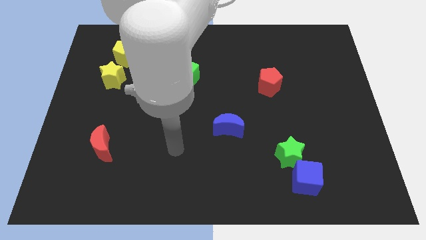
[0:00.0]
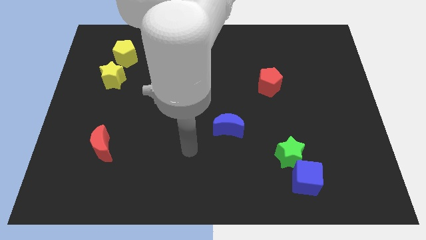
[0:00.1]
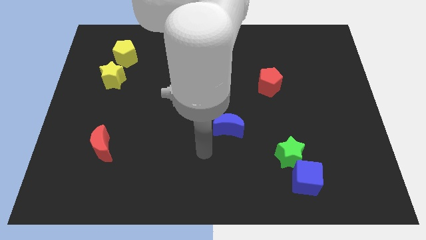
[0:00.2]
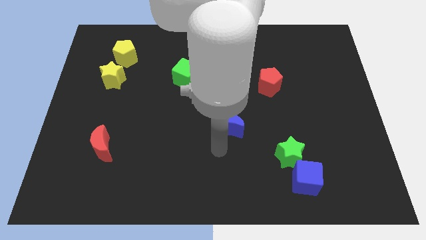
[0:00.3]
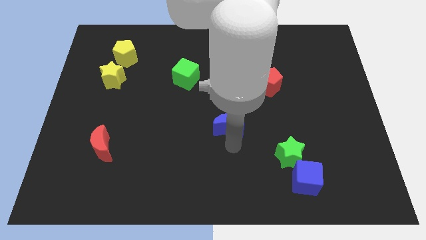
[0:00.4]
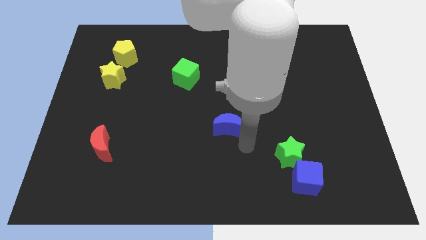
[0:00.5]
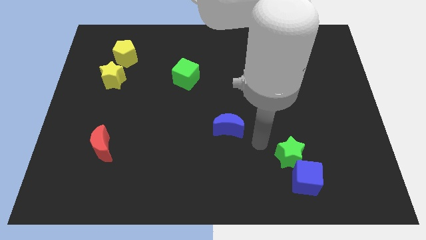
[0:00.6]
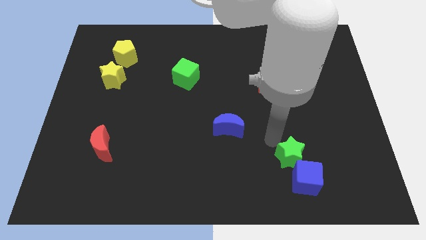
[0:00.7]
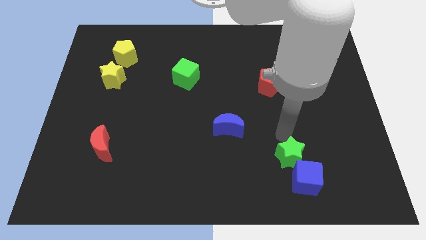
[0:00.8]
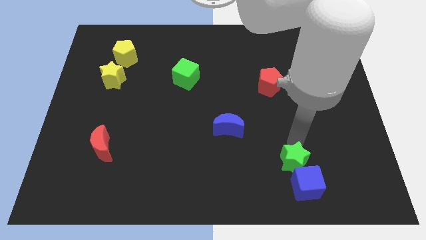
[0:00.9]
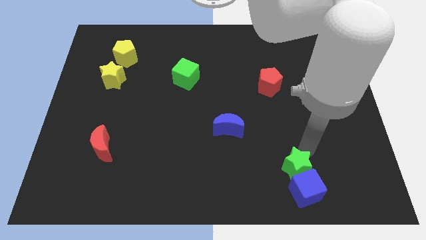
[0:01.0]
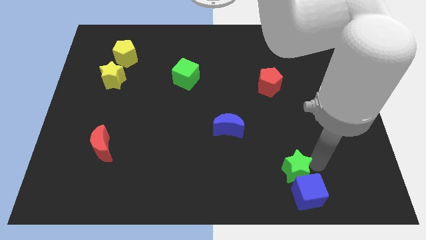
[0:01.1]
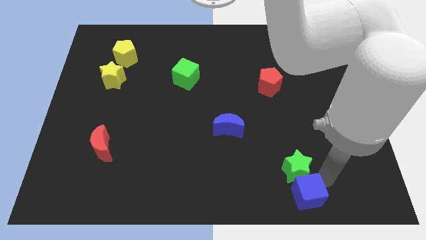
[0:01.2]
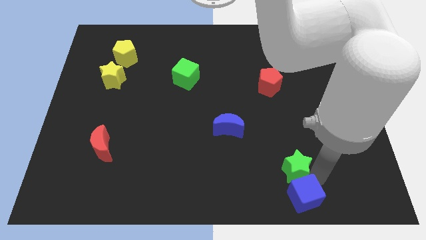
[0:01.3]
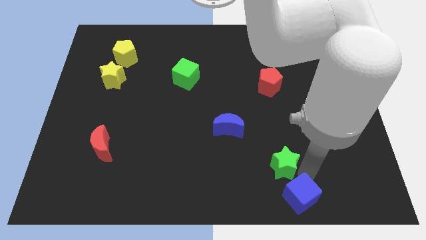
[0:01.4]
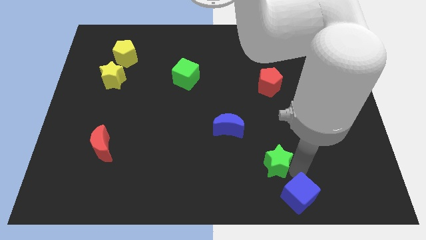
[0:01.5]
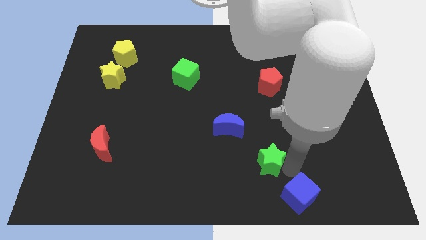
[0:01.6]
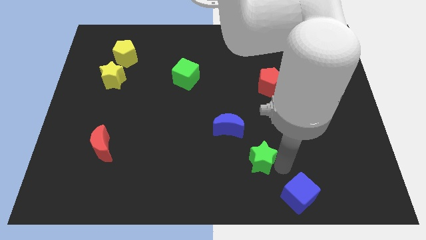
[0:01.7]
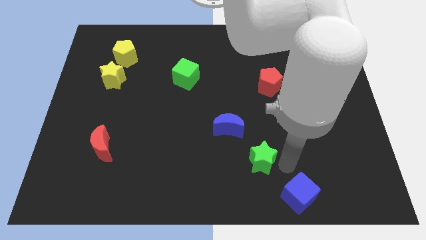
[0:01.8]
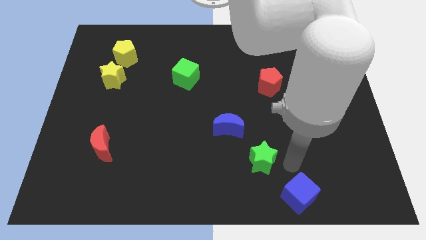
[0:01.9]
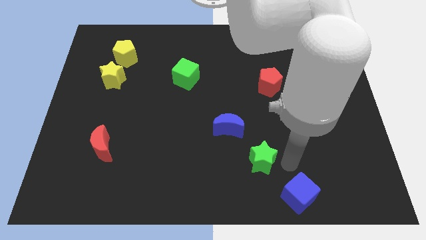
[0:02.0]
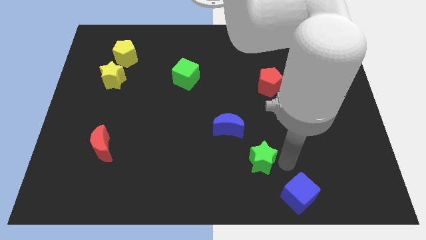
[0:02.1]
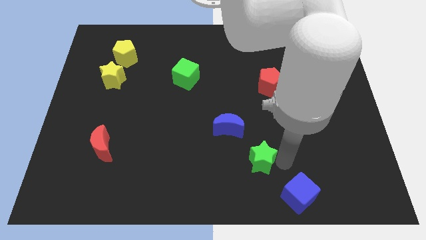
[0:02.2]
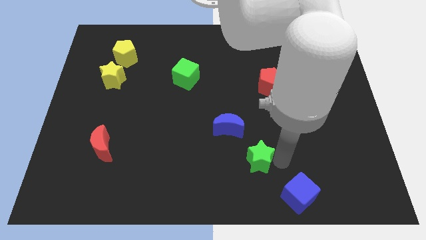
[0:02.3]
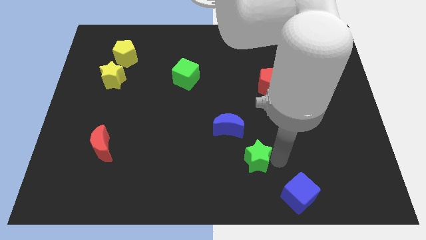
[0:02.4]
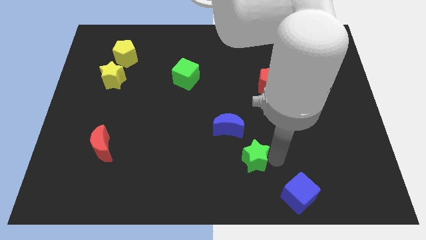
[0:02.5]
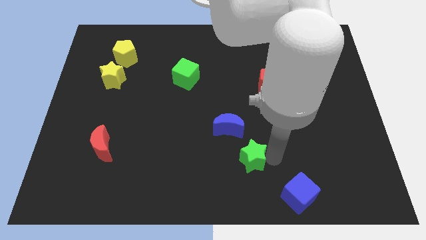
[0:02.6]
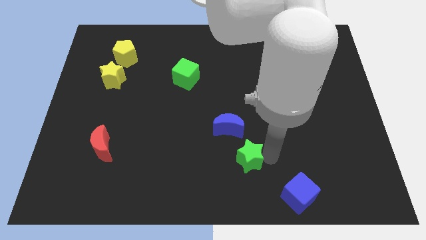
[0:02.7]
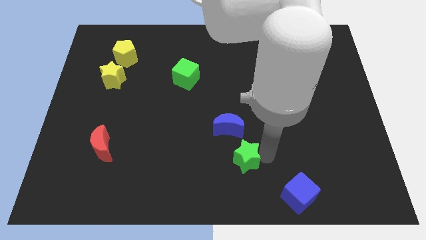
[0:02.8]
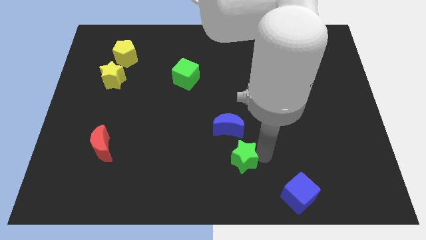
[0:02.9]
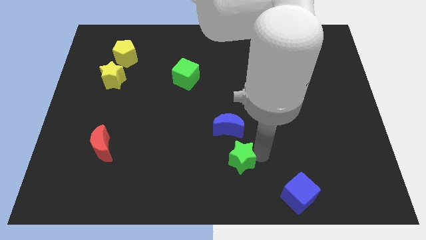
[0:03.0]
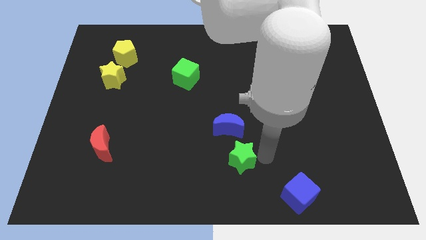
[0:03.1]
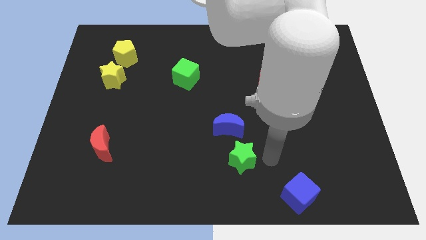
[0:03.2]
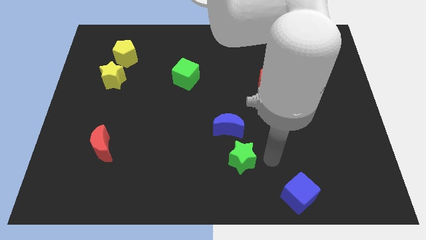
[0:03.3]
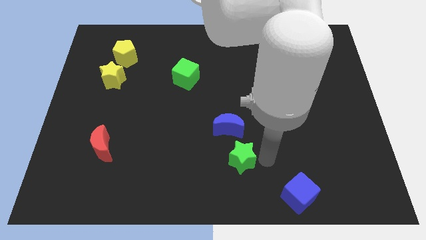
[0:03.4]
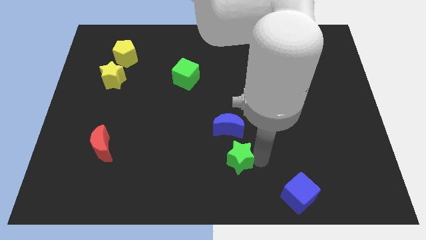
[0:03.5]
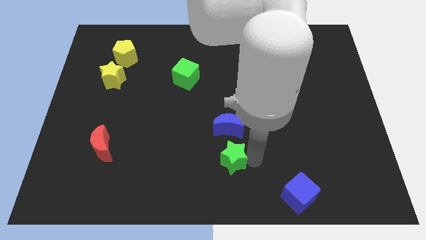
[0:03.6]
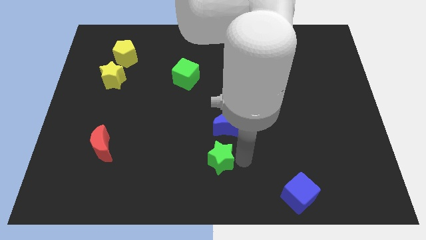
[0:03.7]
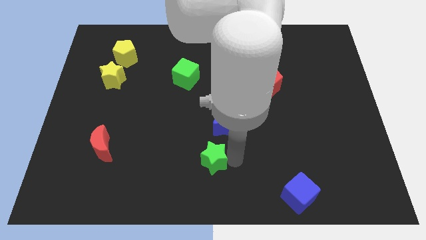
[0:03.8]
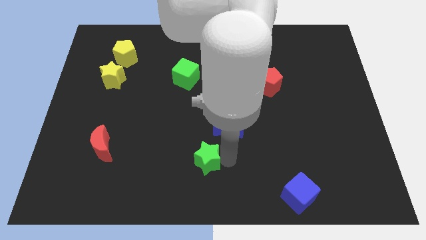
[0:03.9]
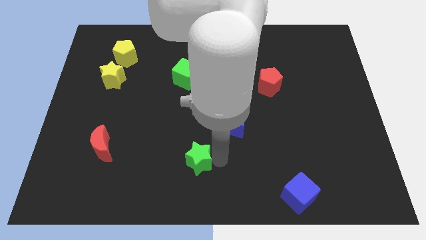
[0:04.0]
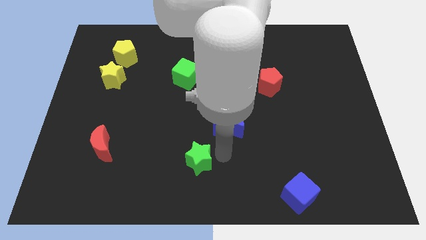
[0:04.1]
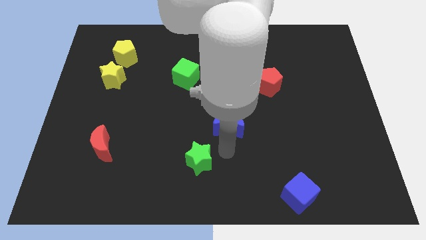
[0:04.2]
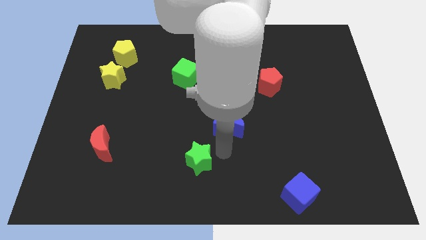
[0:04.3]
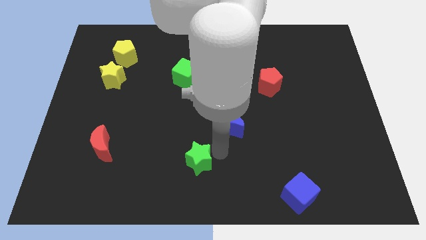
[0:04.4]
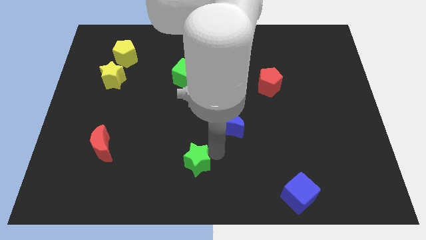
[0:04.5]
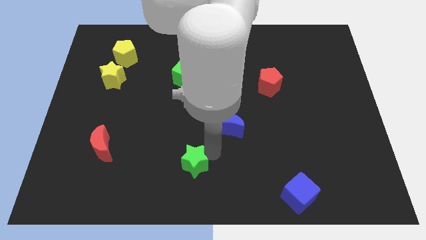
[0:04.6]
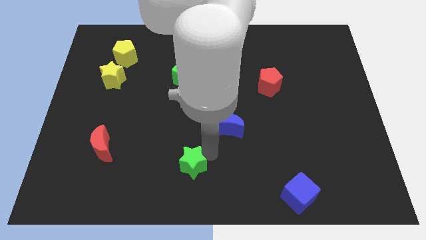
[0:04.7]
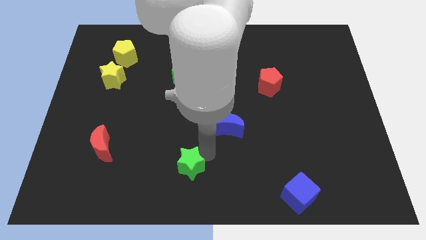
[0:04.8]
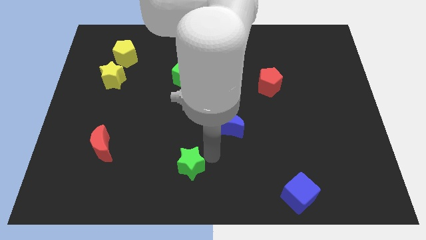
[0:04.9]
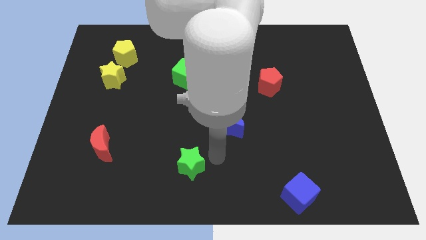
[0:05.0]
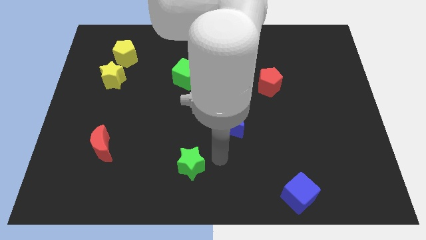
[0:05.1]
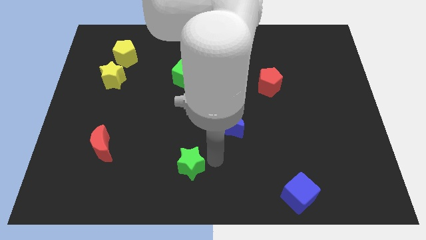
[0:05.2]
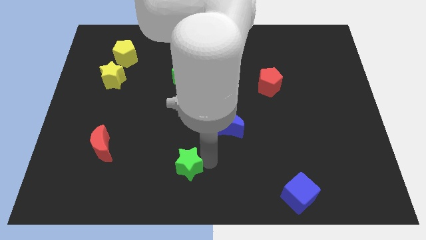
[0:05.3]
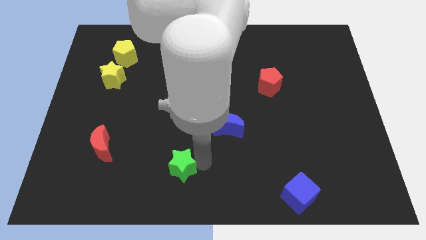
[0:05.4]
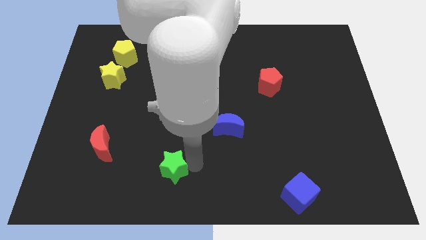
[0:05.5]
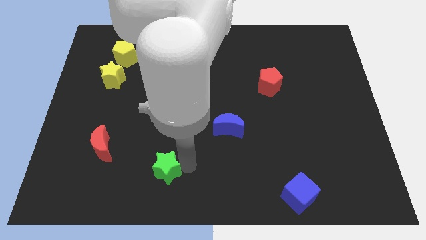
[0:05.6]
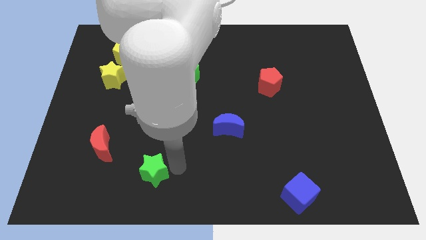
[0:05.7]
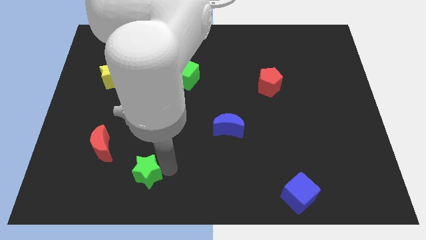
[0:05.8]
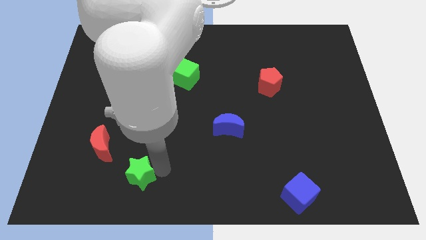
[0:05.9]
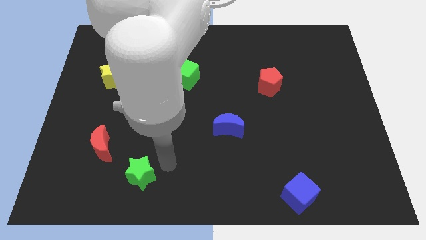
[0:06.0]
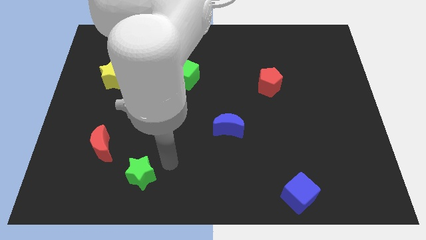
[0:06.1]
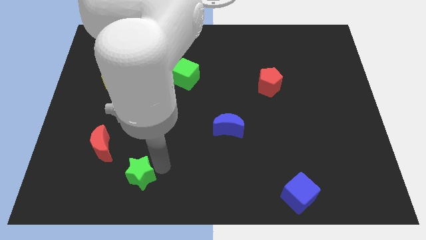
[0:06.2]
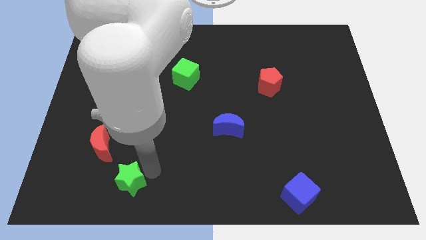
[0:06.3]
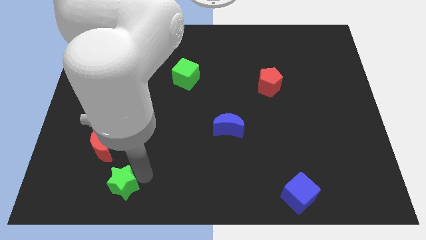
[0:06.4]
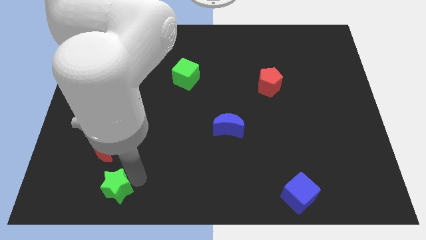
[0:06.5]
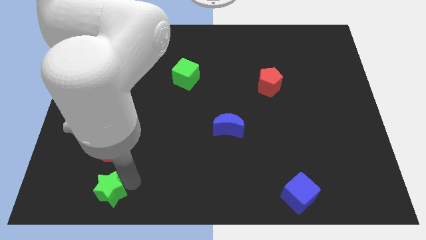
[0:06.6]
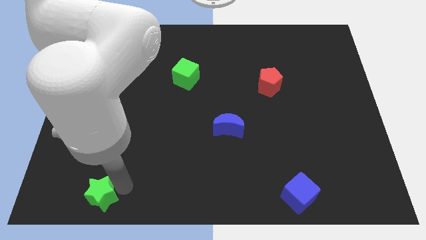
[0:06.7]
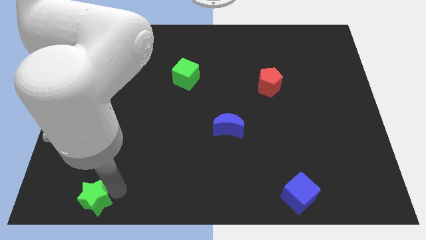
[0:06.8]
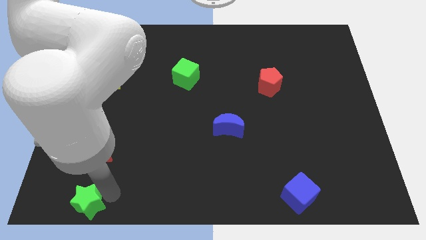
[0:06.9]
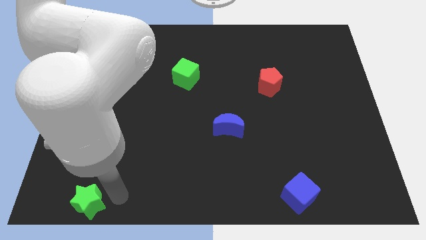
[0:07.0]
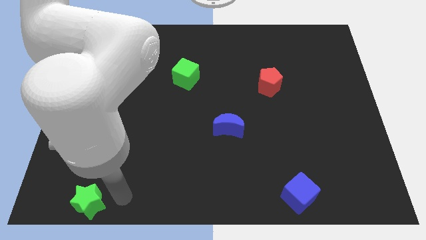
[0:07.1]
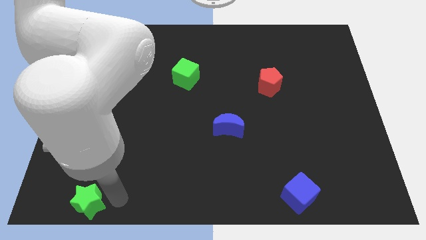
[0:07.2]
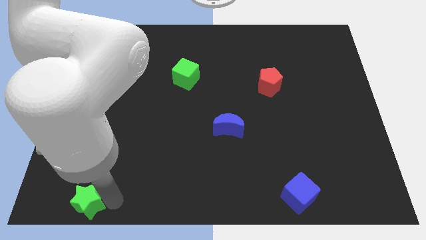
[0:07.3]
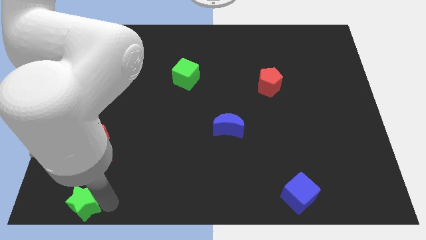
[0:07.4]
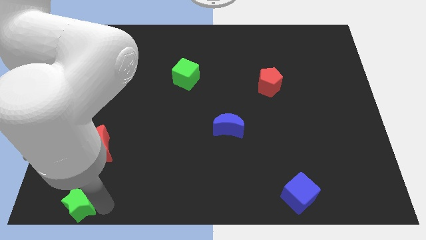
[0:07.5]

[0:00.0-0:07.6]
push the green star to the bottom left
